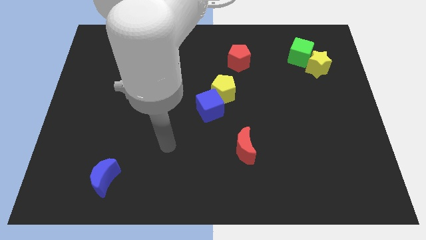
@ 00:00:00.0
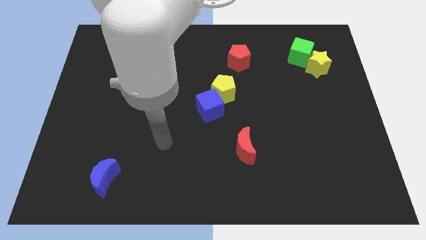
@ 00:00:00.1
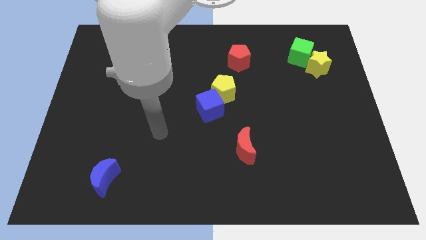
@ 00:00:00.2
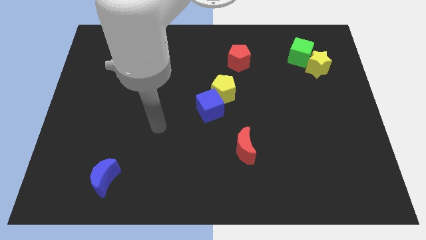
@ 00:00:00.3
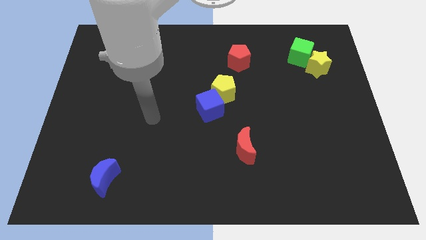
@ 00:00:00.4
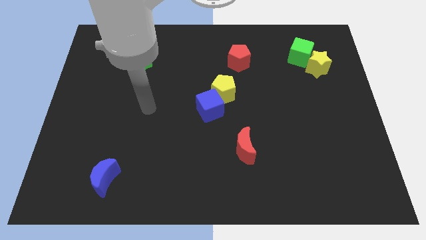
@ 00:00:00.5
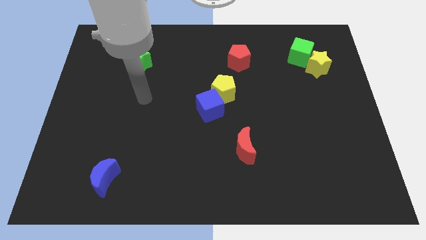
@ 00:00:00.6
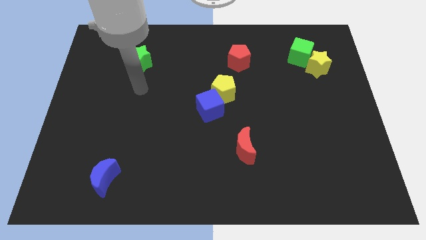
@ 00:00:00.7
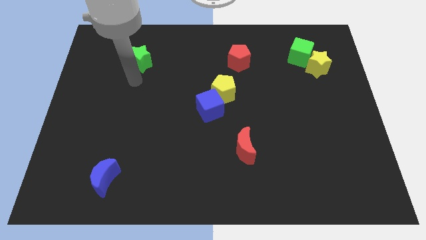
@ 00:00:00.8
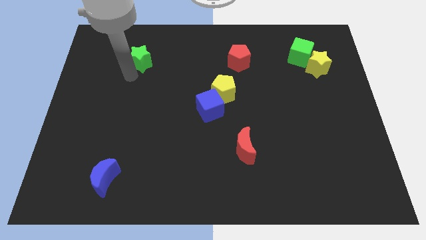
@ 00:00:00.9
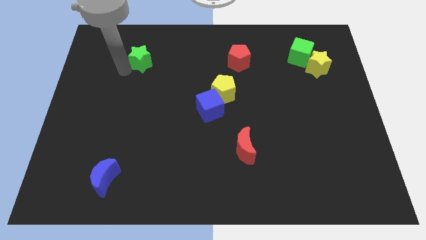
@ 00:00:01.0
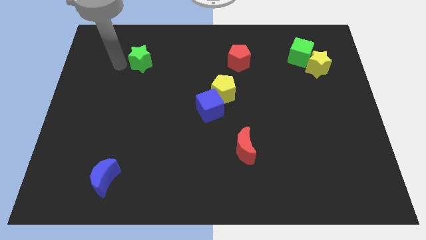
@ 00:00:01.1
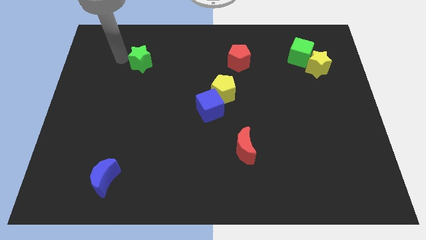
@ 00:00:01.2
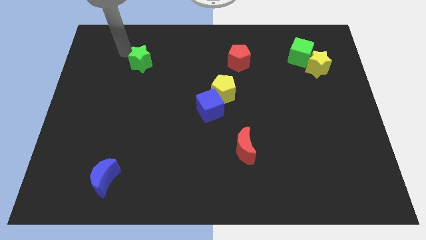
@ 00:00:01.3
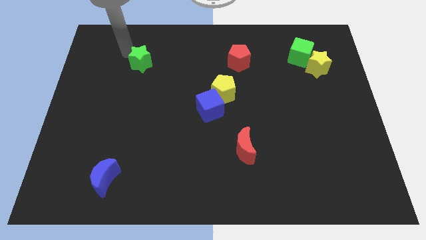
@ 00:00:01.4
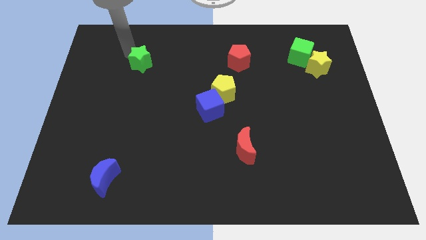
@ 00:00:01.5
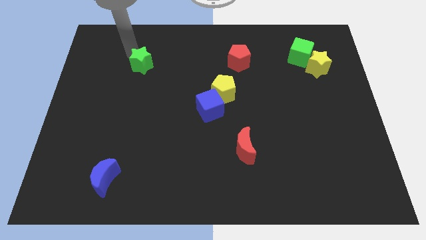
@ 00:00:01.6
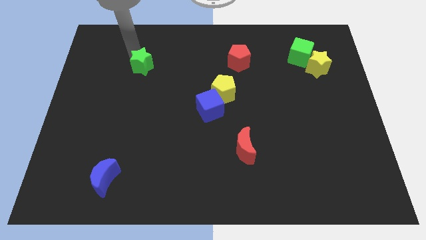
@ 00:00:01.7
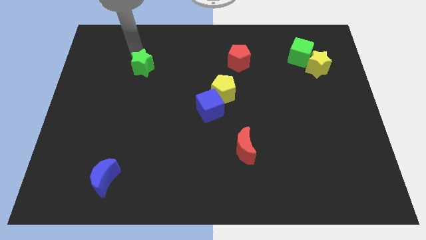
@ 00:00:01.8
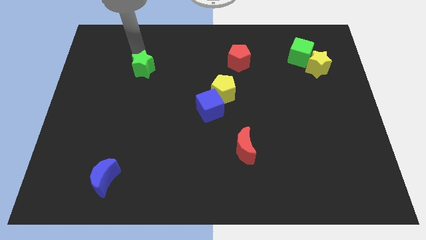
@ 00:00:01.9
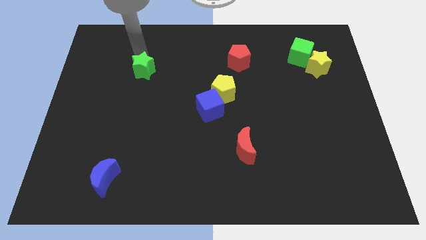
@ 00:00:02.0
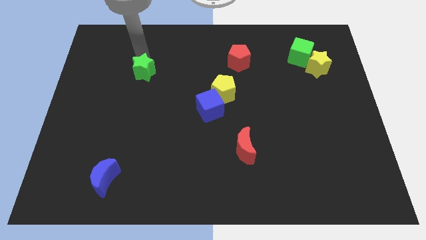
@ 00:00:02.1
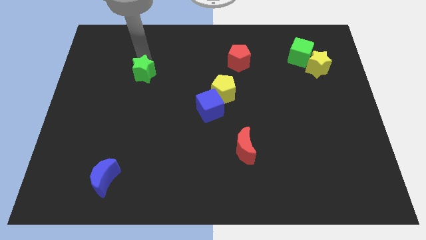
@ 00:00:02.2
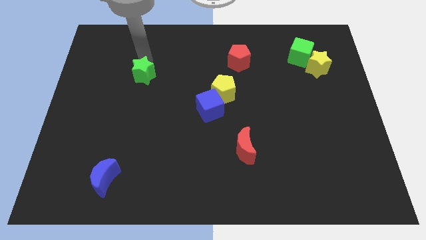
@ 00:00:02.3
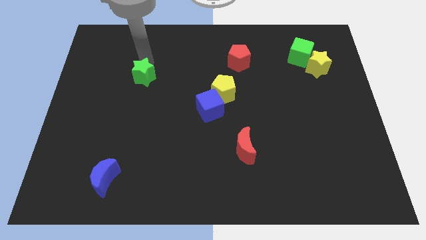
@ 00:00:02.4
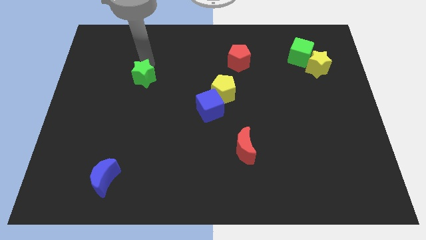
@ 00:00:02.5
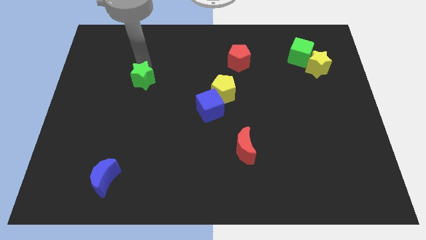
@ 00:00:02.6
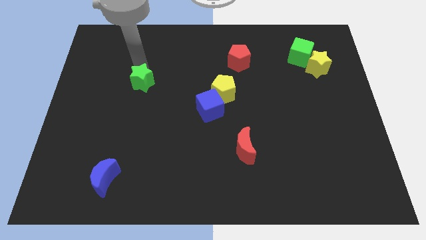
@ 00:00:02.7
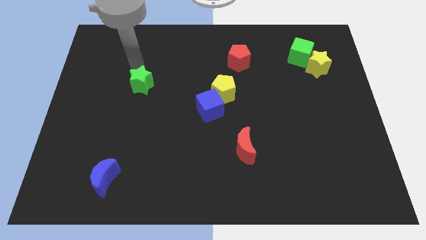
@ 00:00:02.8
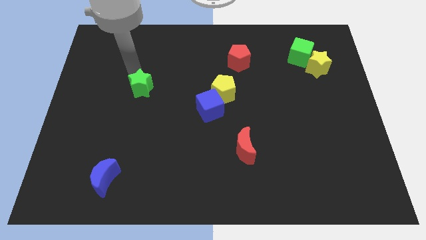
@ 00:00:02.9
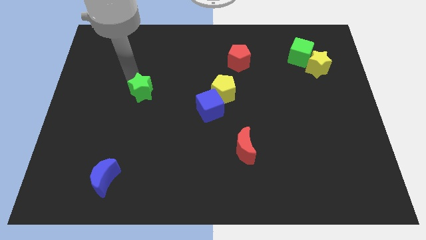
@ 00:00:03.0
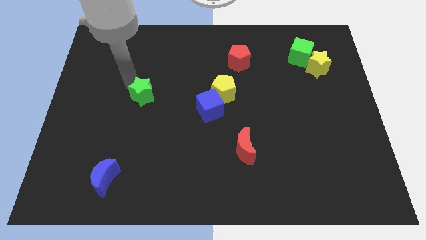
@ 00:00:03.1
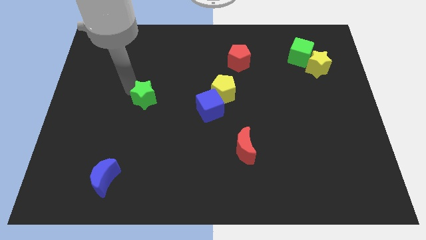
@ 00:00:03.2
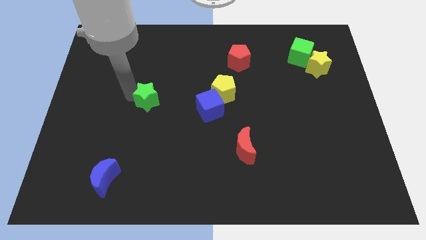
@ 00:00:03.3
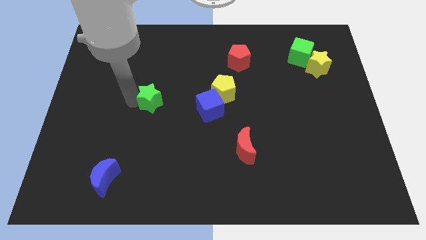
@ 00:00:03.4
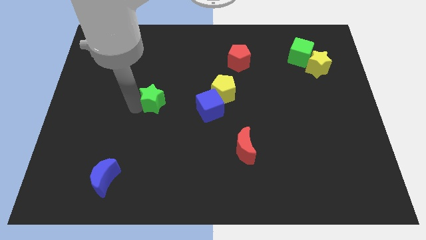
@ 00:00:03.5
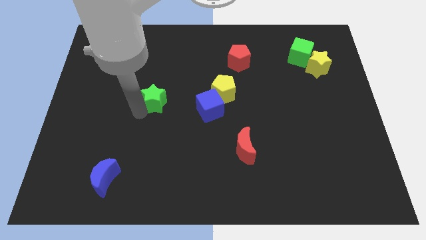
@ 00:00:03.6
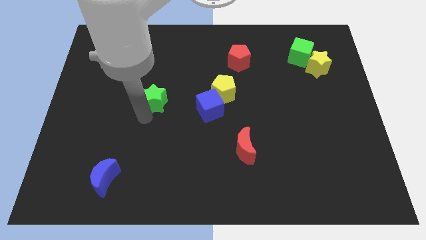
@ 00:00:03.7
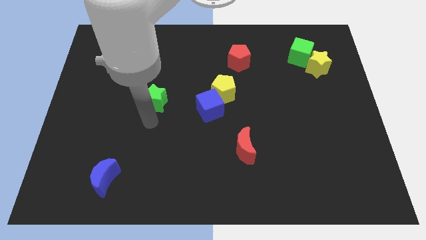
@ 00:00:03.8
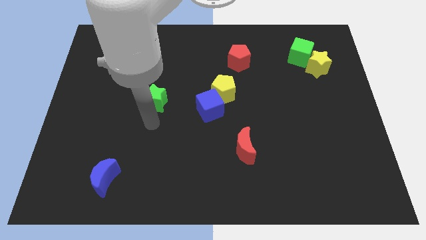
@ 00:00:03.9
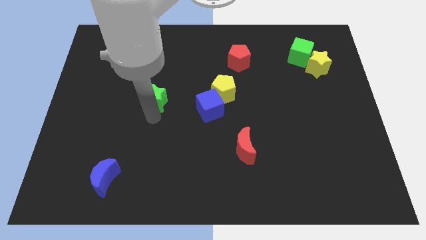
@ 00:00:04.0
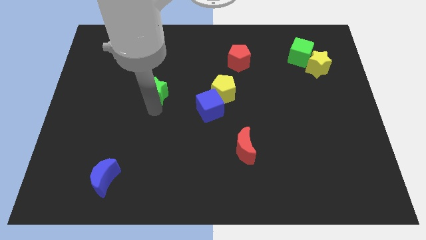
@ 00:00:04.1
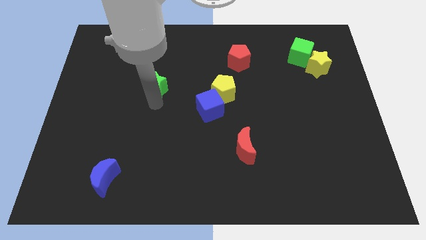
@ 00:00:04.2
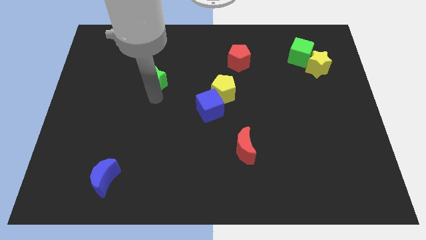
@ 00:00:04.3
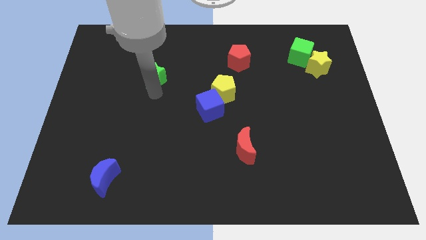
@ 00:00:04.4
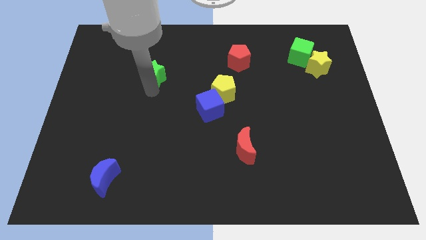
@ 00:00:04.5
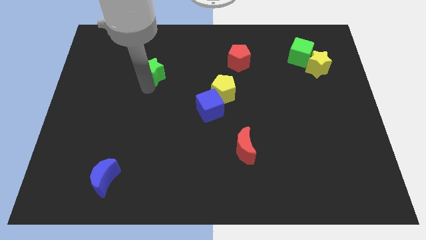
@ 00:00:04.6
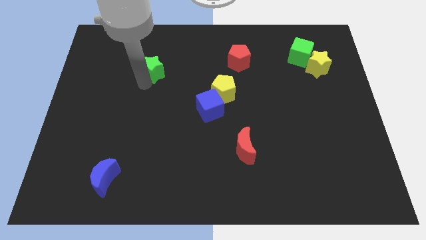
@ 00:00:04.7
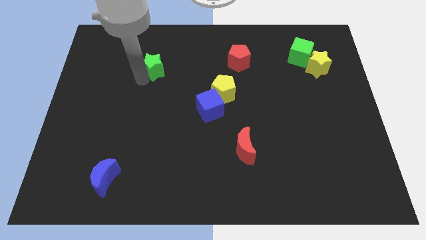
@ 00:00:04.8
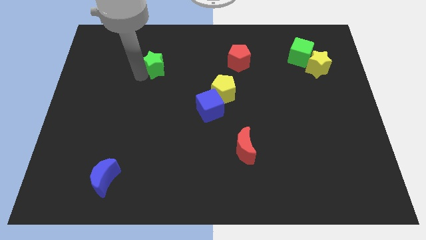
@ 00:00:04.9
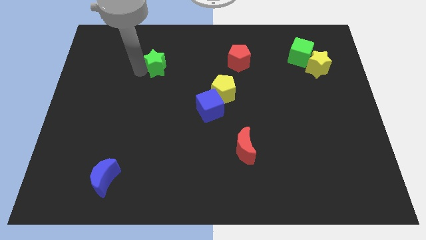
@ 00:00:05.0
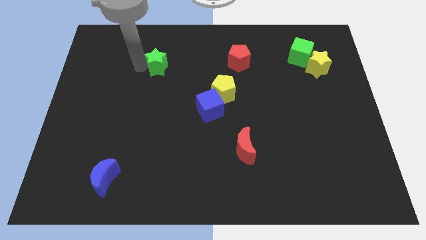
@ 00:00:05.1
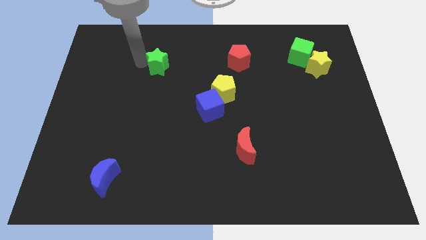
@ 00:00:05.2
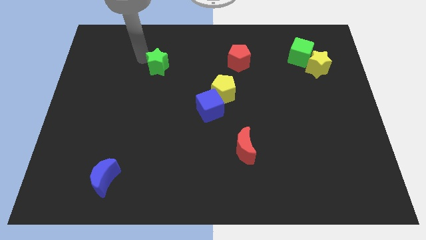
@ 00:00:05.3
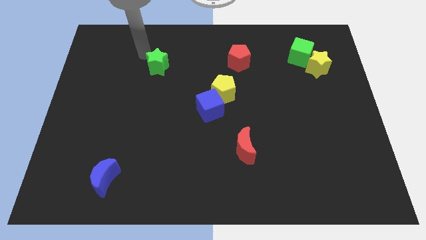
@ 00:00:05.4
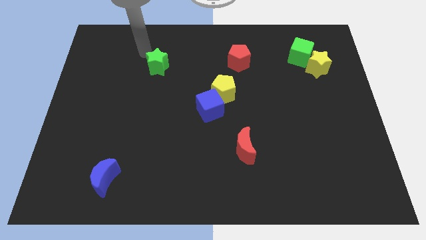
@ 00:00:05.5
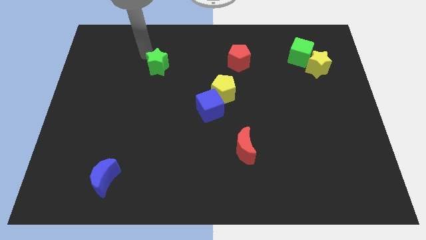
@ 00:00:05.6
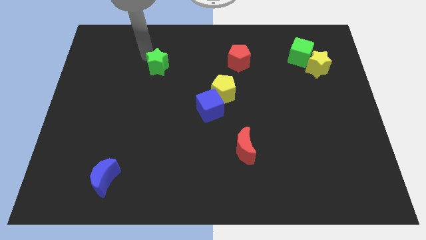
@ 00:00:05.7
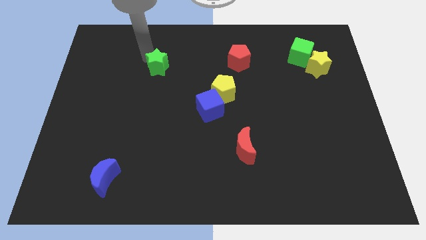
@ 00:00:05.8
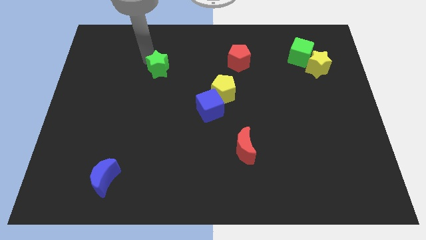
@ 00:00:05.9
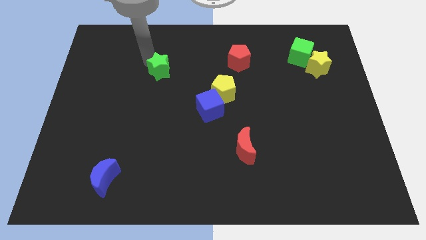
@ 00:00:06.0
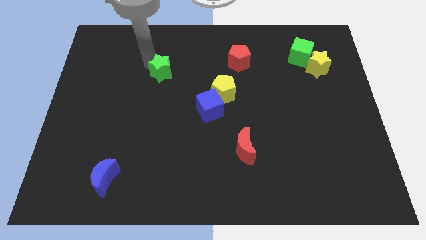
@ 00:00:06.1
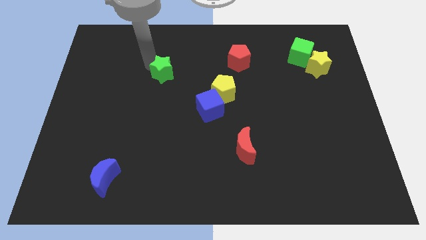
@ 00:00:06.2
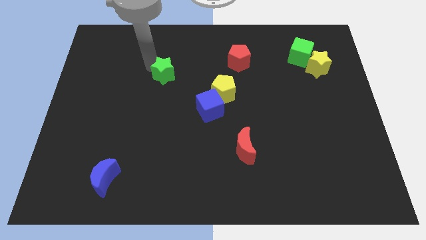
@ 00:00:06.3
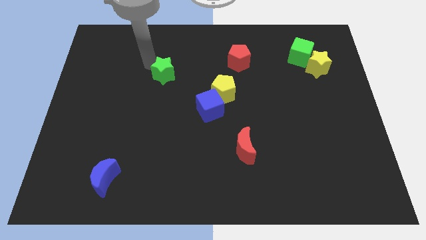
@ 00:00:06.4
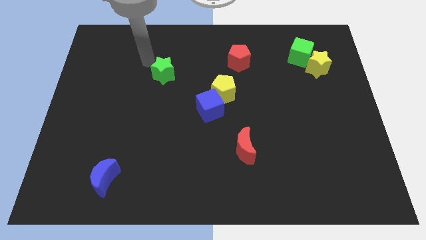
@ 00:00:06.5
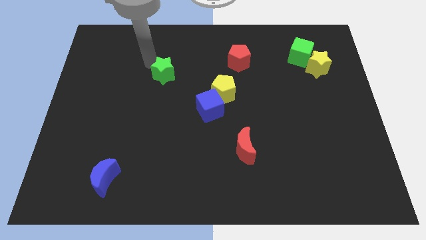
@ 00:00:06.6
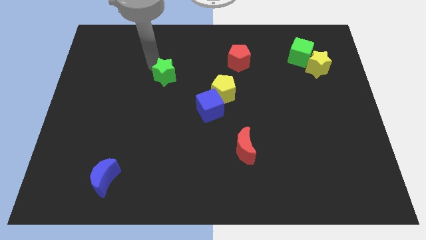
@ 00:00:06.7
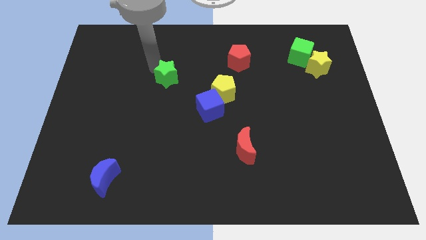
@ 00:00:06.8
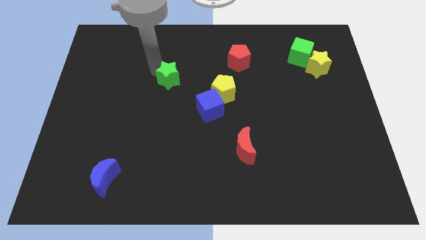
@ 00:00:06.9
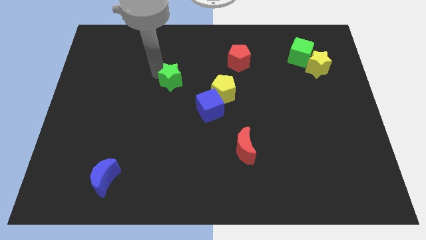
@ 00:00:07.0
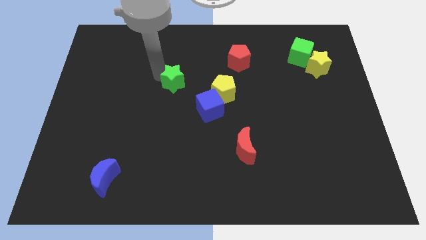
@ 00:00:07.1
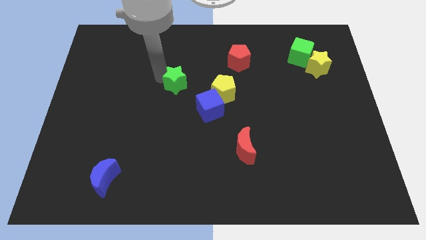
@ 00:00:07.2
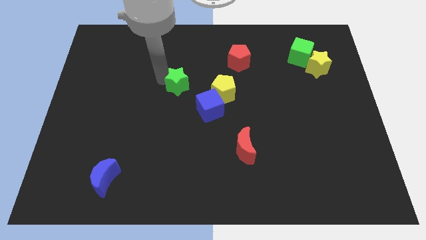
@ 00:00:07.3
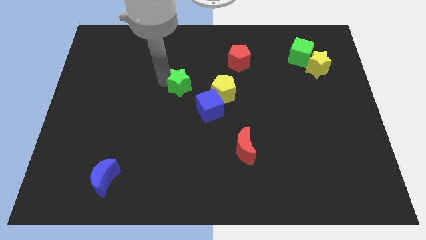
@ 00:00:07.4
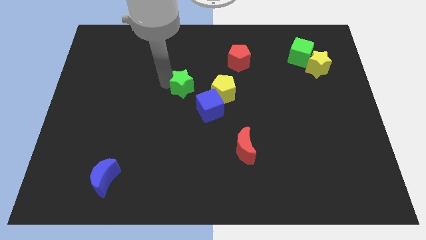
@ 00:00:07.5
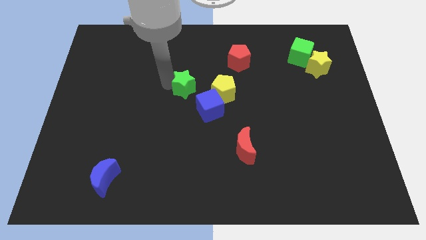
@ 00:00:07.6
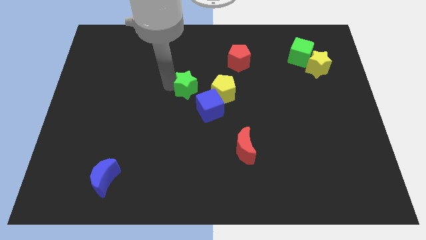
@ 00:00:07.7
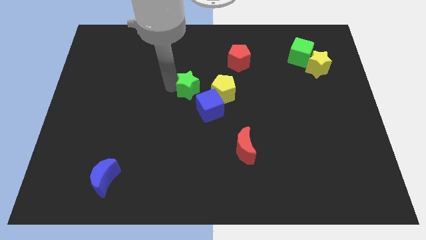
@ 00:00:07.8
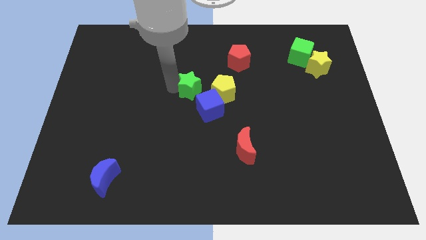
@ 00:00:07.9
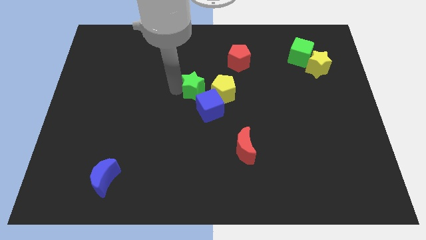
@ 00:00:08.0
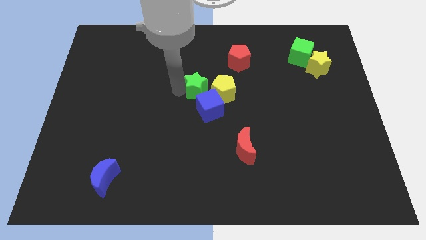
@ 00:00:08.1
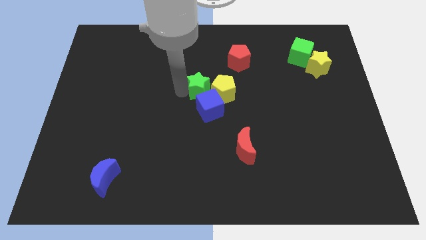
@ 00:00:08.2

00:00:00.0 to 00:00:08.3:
push the green star next to the yellow pentagon
